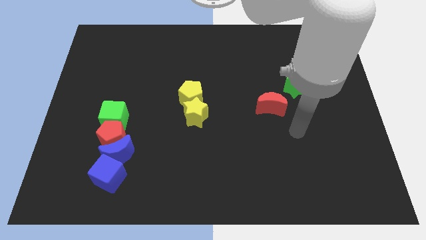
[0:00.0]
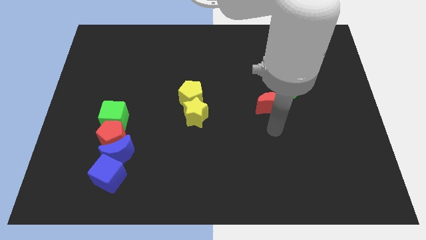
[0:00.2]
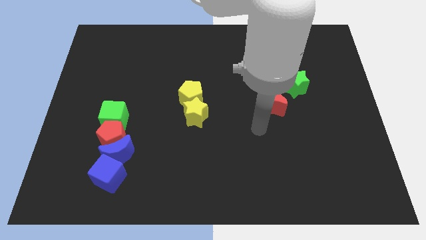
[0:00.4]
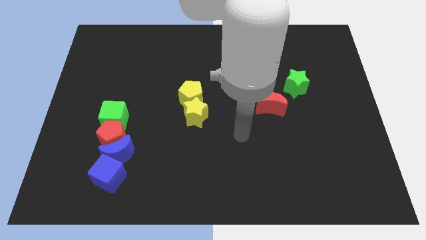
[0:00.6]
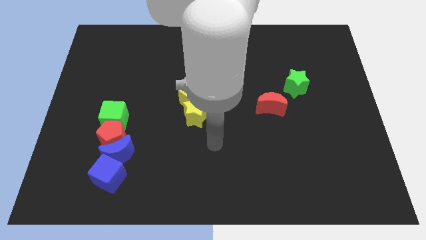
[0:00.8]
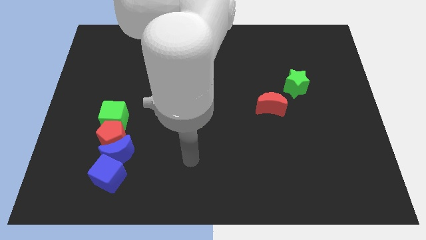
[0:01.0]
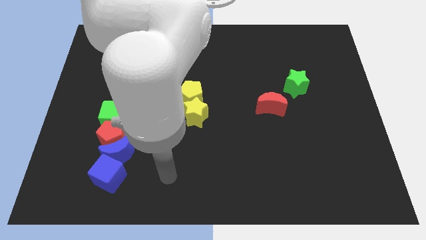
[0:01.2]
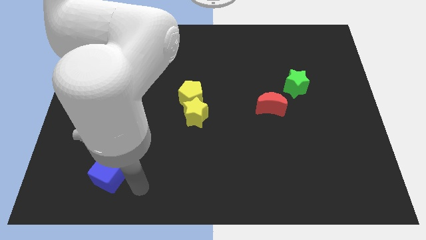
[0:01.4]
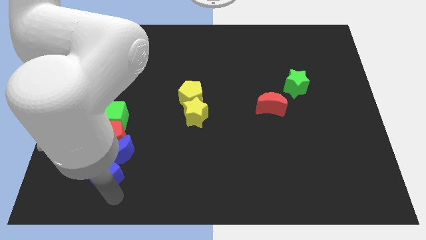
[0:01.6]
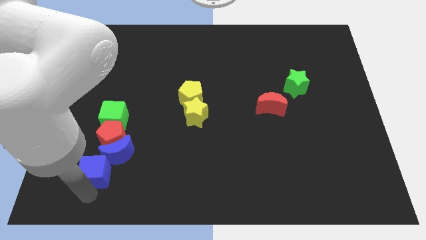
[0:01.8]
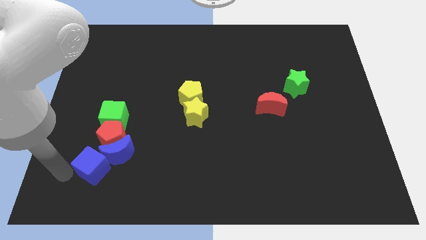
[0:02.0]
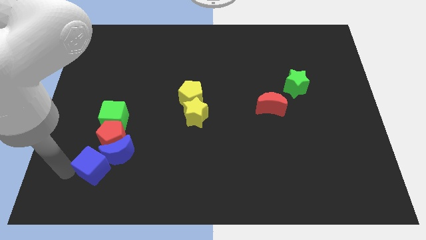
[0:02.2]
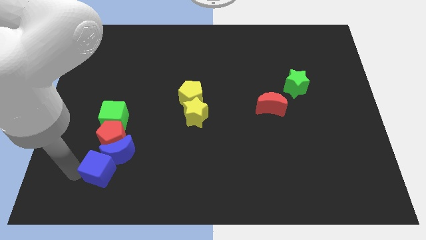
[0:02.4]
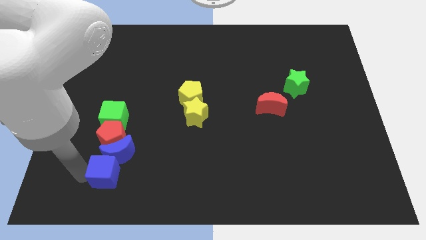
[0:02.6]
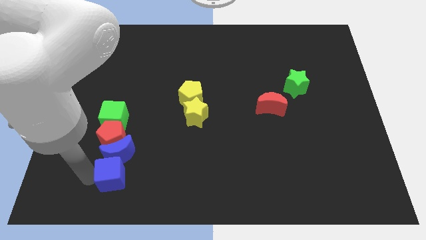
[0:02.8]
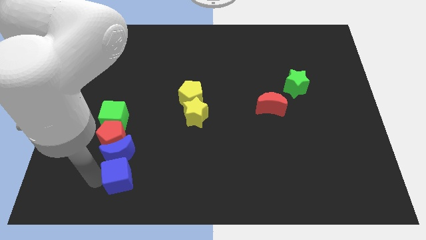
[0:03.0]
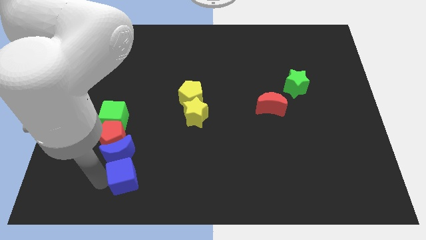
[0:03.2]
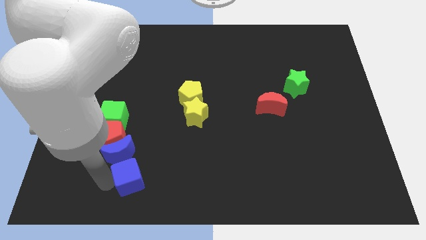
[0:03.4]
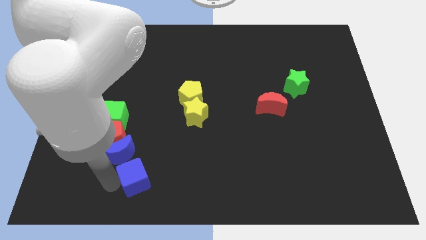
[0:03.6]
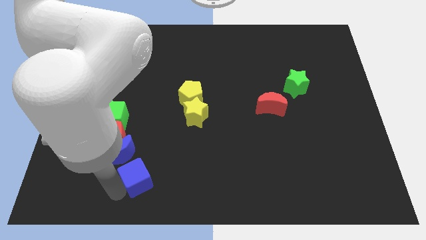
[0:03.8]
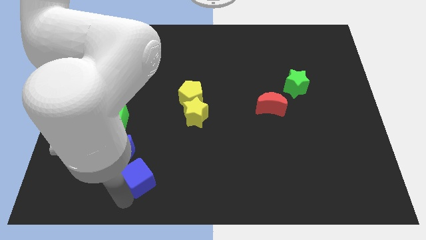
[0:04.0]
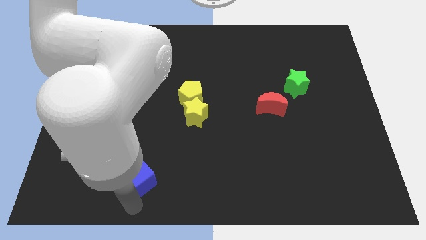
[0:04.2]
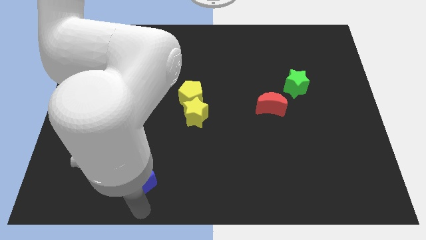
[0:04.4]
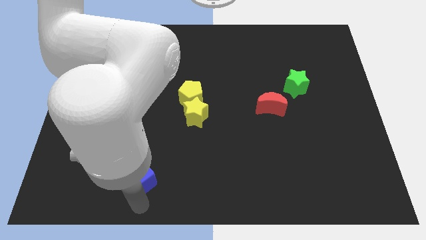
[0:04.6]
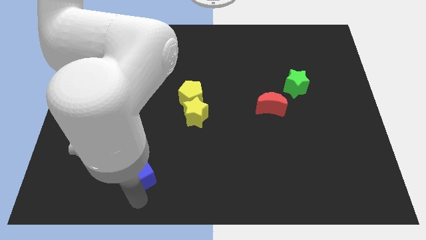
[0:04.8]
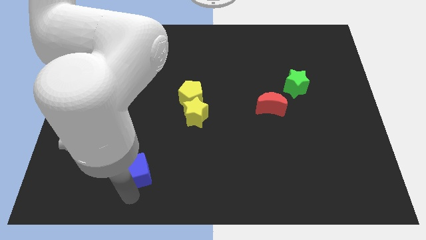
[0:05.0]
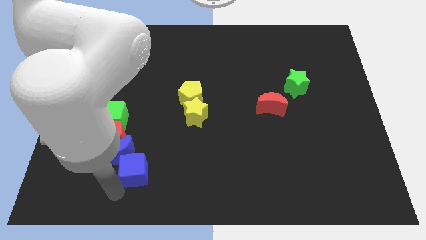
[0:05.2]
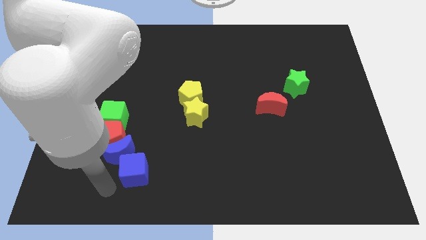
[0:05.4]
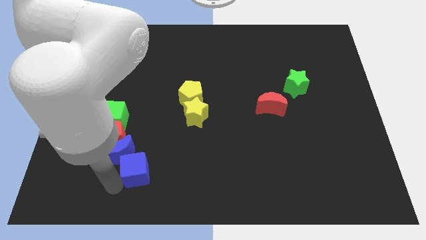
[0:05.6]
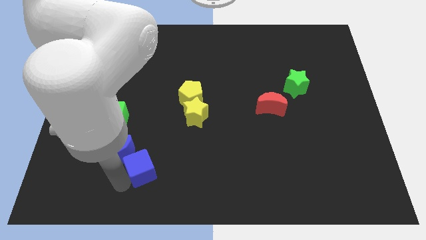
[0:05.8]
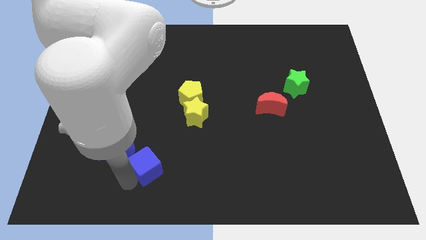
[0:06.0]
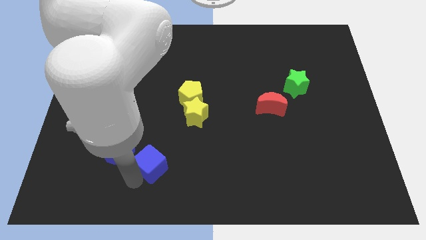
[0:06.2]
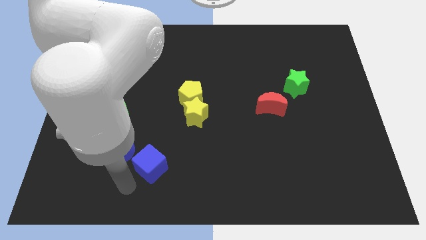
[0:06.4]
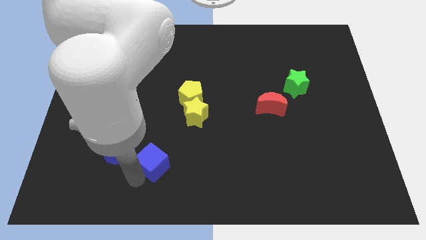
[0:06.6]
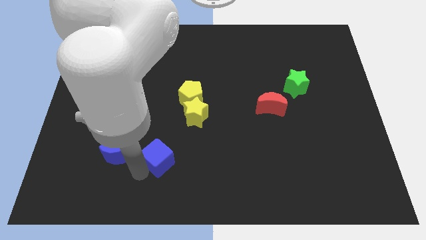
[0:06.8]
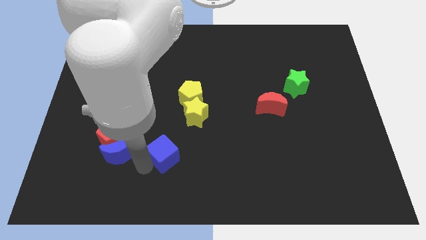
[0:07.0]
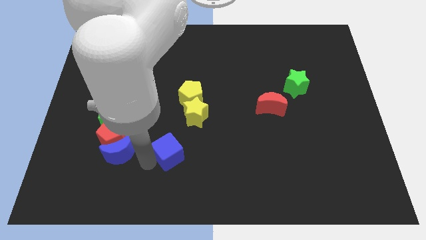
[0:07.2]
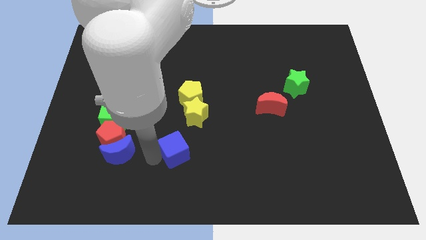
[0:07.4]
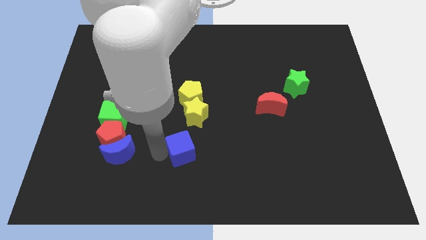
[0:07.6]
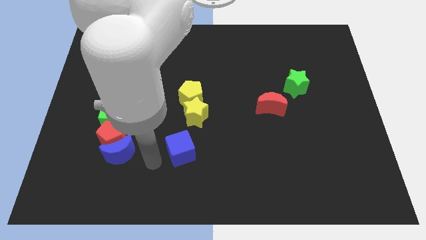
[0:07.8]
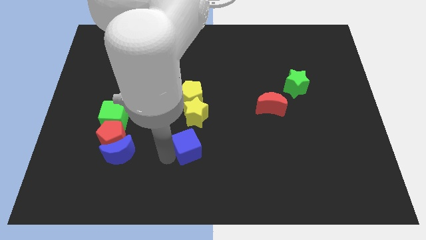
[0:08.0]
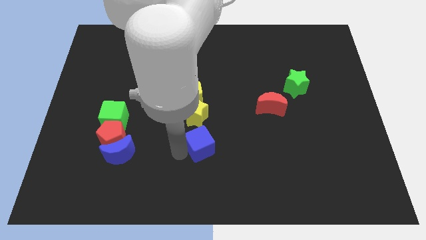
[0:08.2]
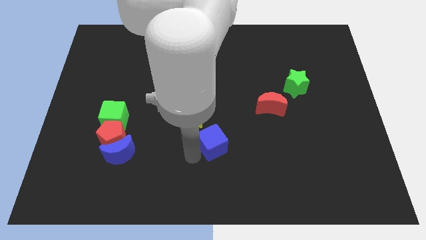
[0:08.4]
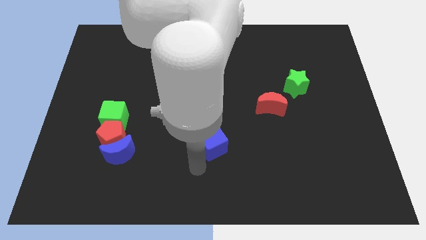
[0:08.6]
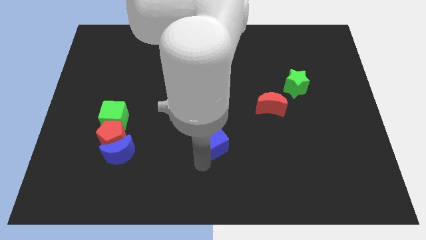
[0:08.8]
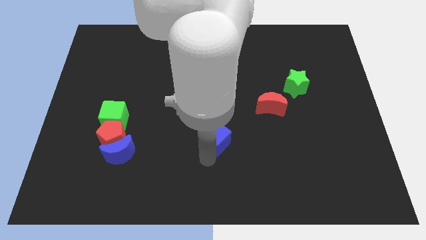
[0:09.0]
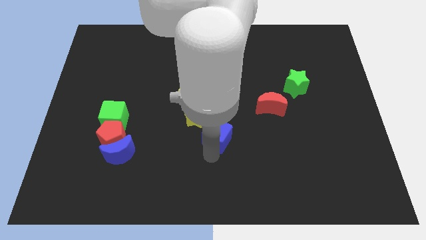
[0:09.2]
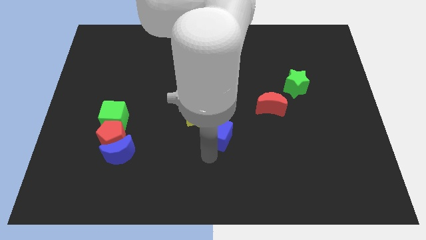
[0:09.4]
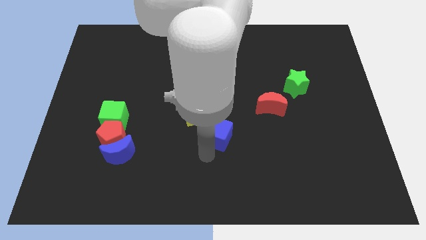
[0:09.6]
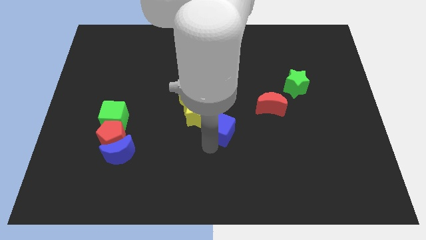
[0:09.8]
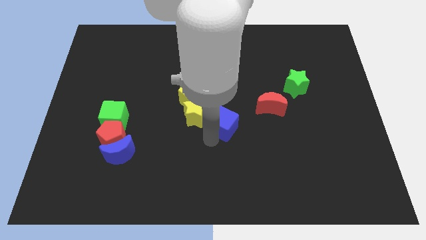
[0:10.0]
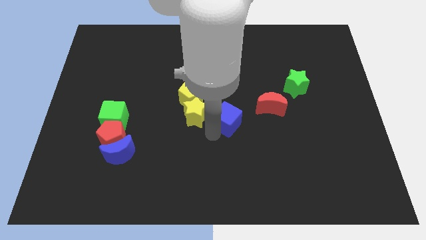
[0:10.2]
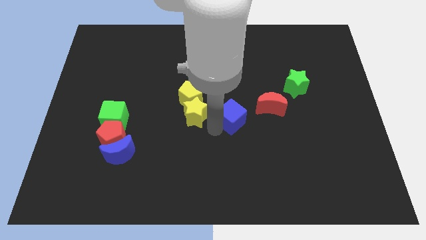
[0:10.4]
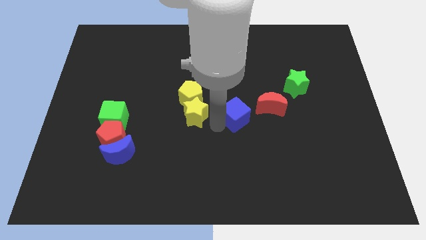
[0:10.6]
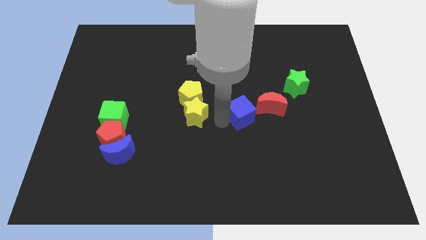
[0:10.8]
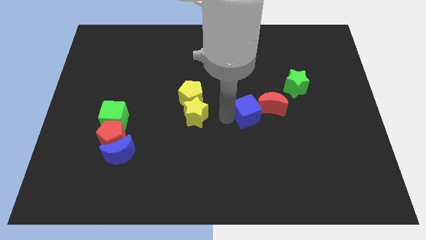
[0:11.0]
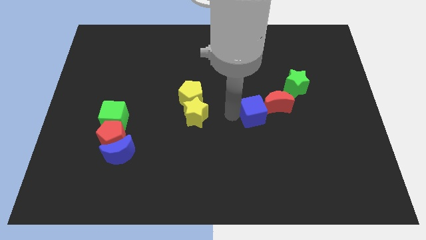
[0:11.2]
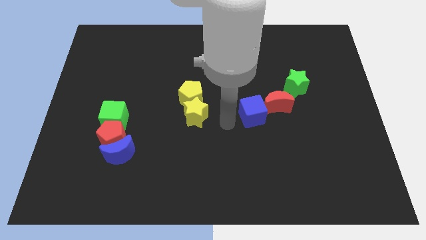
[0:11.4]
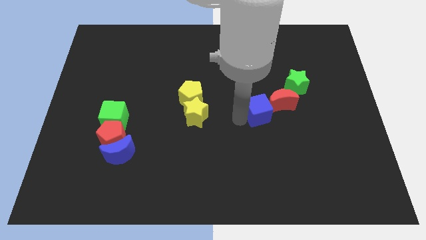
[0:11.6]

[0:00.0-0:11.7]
slide the blue cube to the red moon

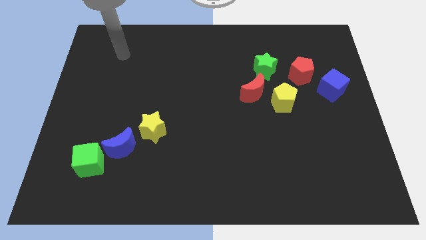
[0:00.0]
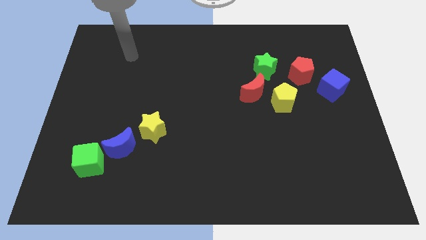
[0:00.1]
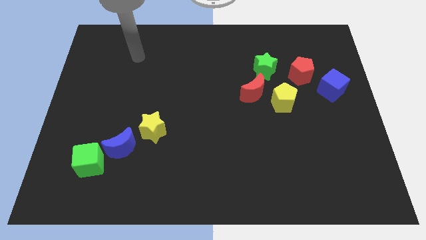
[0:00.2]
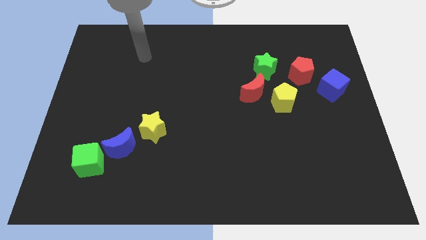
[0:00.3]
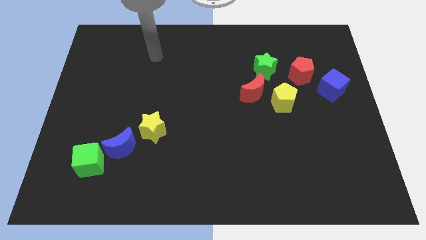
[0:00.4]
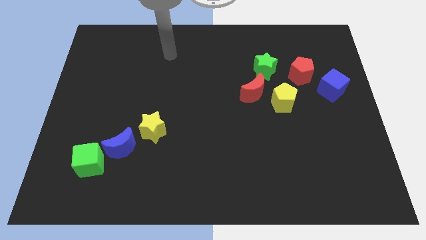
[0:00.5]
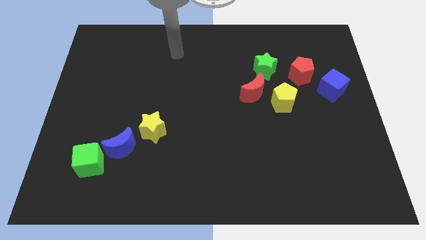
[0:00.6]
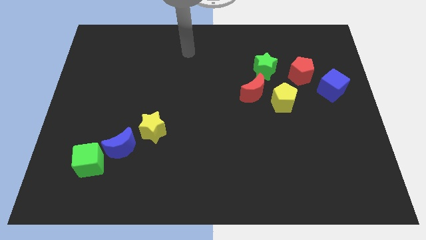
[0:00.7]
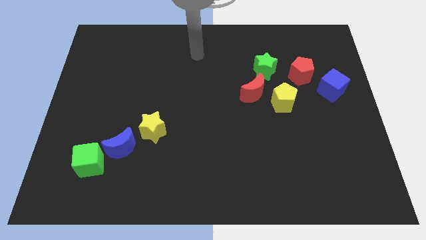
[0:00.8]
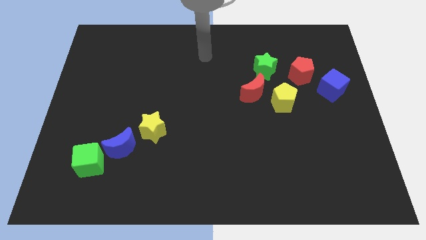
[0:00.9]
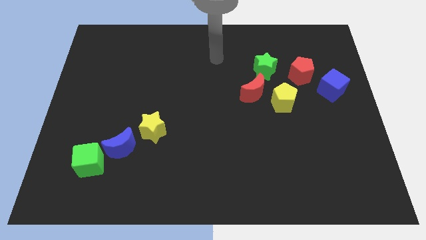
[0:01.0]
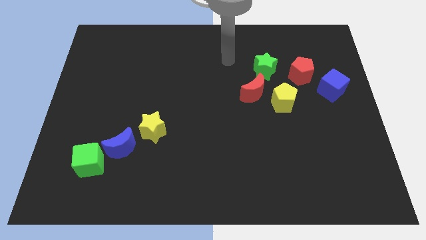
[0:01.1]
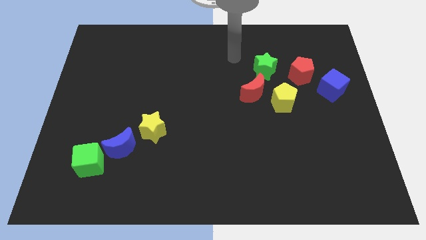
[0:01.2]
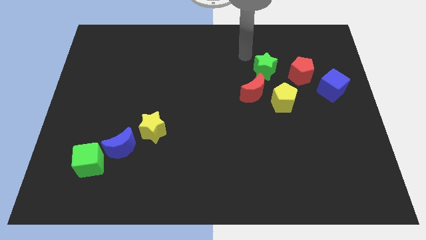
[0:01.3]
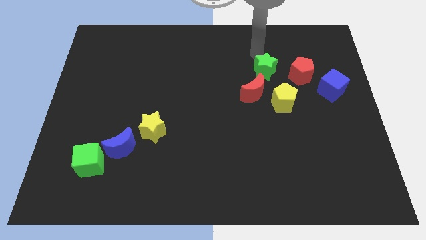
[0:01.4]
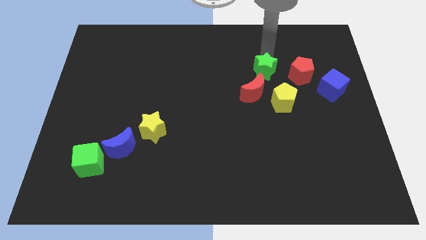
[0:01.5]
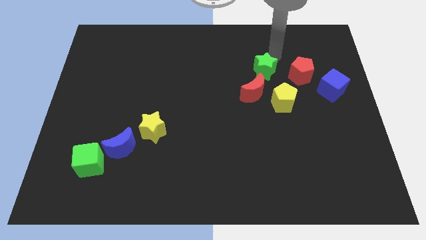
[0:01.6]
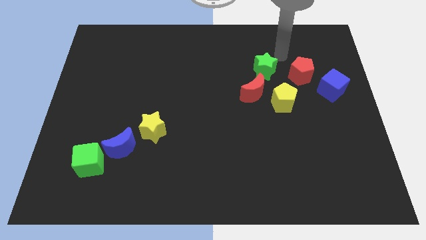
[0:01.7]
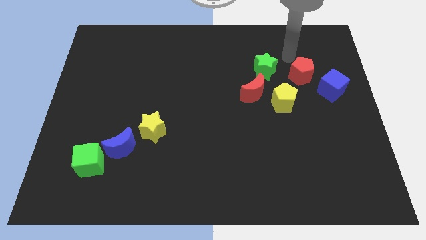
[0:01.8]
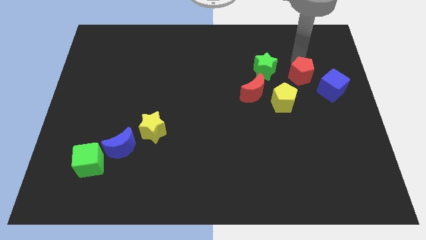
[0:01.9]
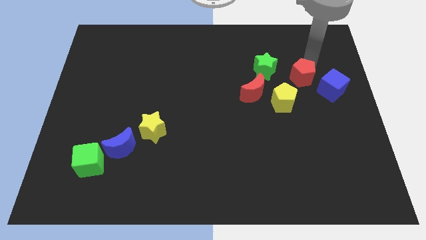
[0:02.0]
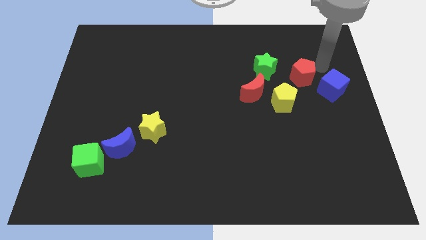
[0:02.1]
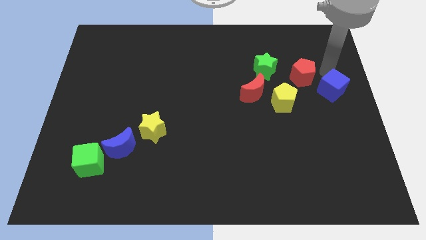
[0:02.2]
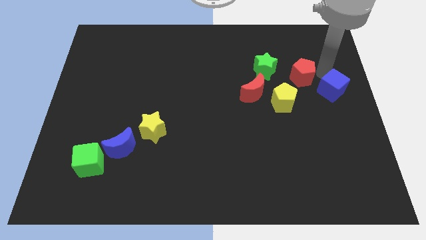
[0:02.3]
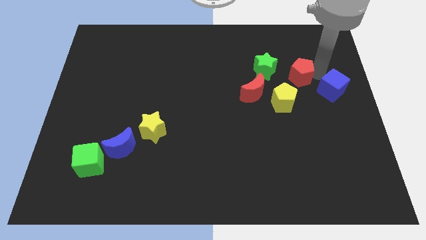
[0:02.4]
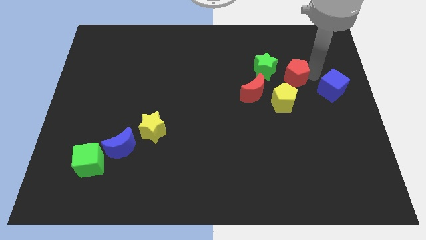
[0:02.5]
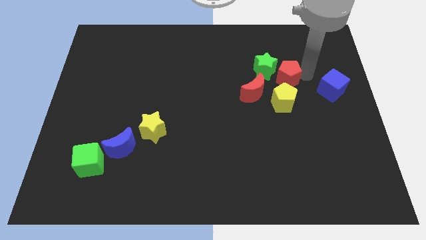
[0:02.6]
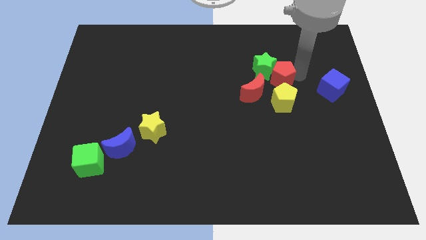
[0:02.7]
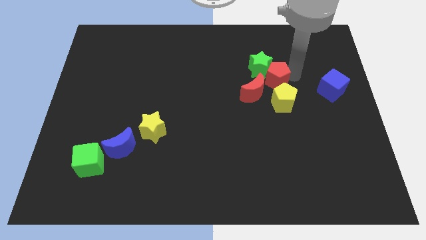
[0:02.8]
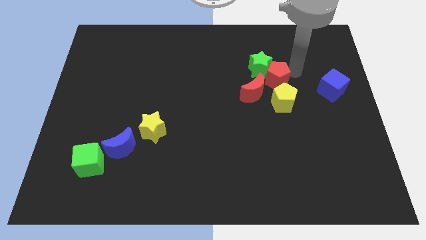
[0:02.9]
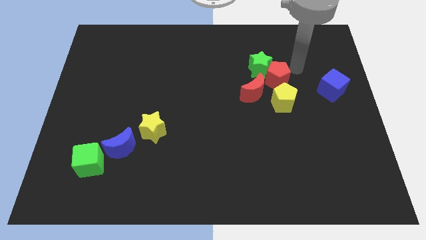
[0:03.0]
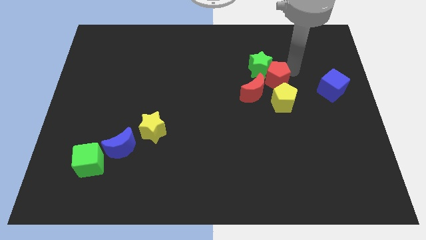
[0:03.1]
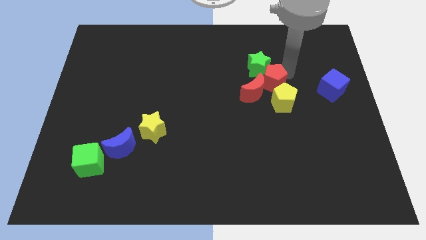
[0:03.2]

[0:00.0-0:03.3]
move the red pentagon close to the red moon
